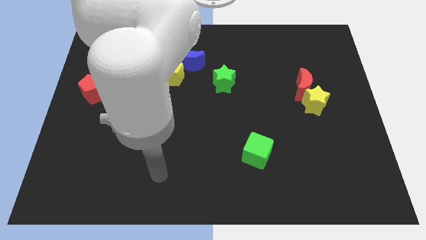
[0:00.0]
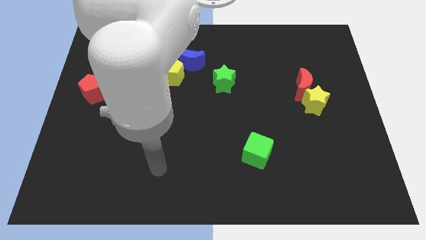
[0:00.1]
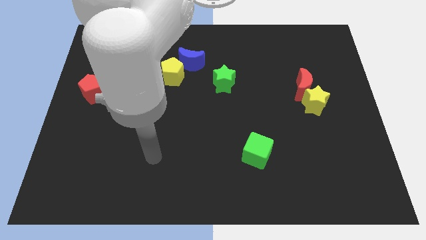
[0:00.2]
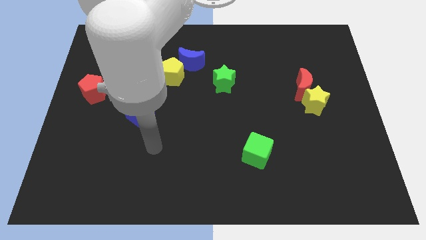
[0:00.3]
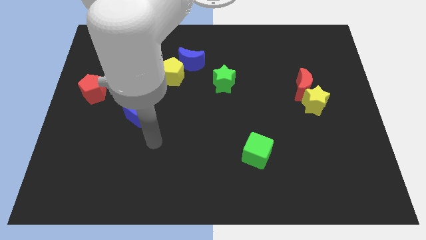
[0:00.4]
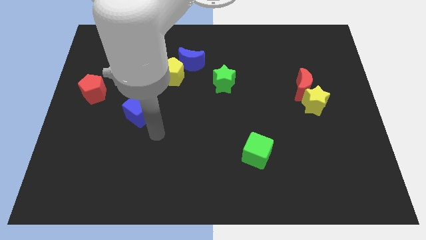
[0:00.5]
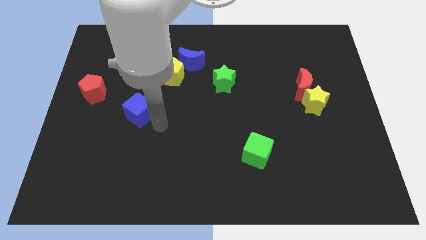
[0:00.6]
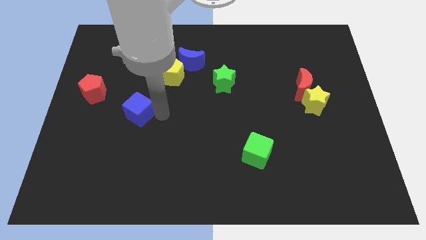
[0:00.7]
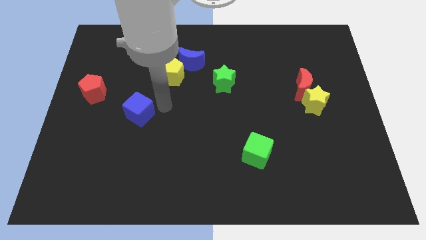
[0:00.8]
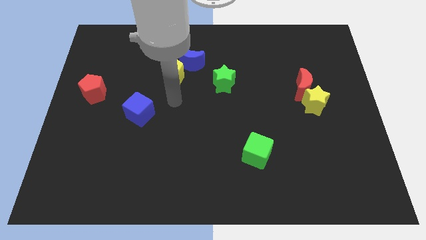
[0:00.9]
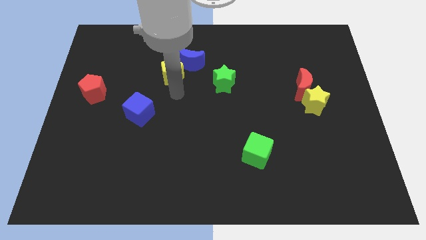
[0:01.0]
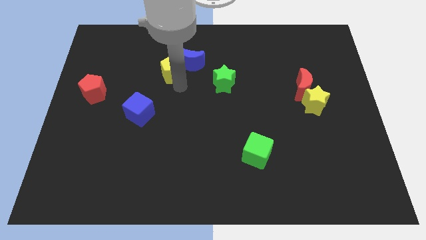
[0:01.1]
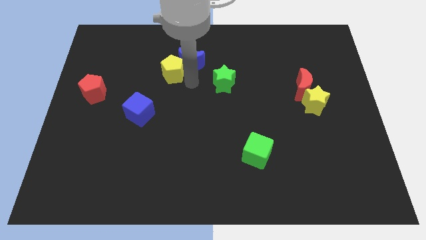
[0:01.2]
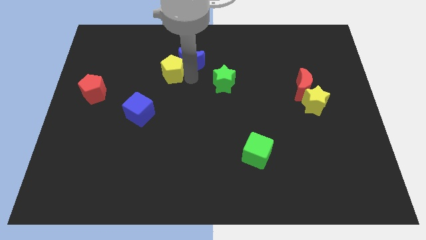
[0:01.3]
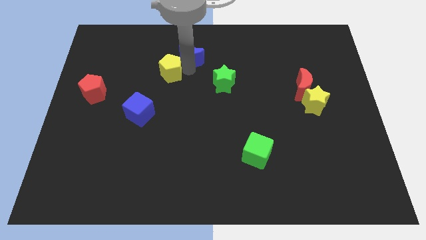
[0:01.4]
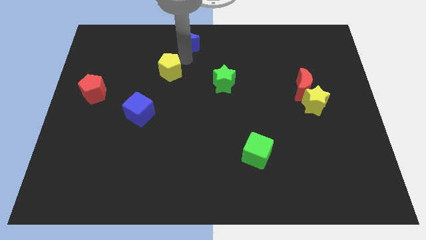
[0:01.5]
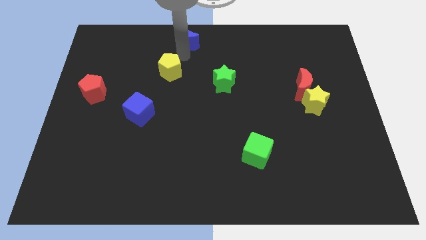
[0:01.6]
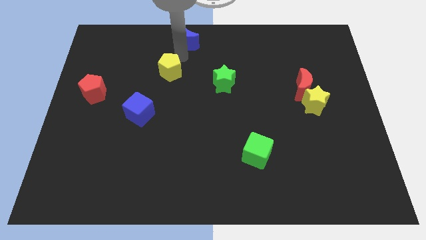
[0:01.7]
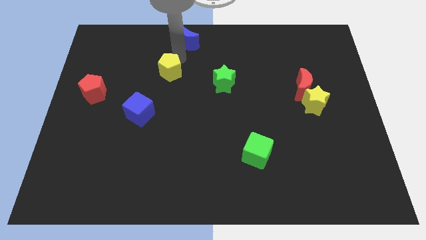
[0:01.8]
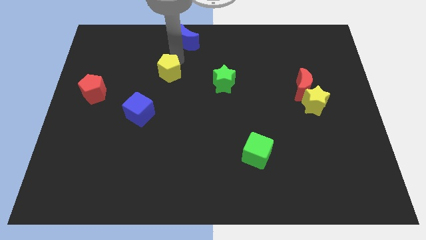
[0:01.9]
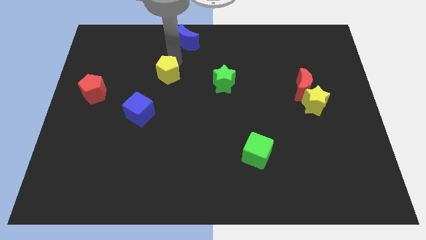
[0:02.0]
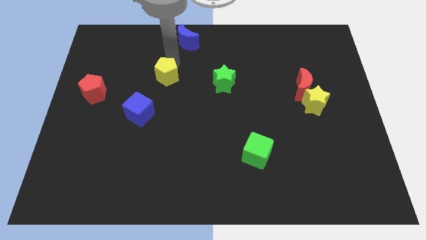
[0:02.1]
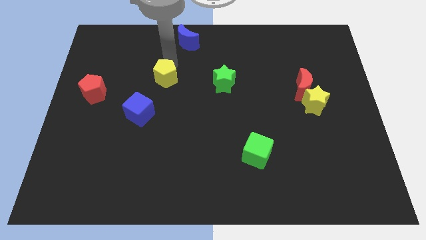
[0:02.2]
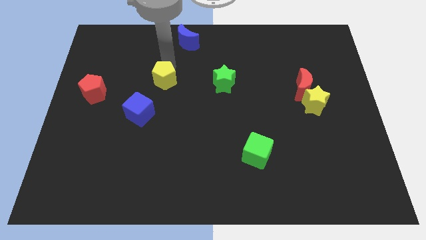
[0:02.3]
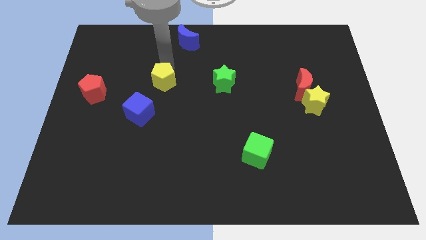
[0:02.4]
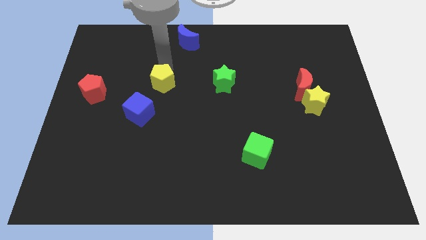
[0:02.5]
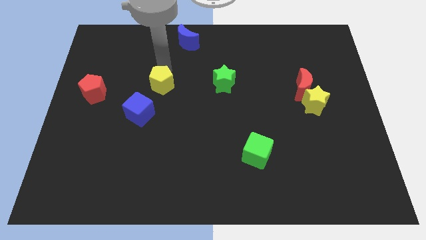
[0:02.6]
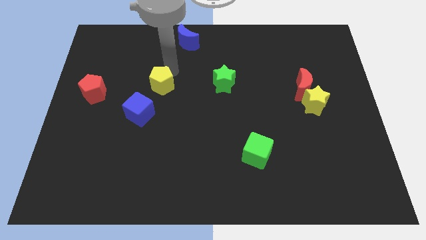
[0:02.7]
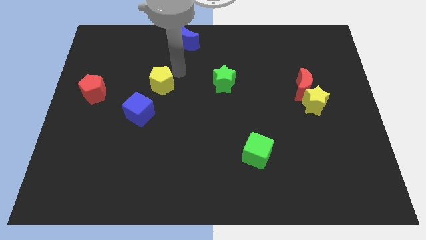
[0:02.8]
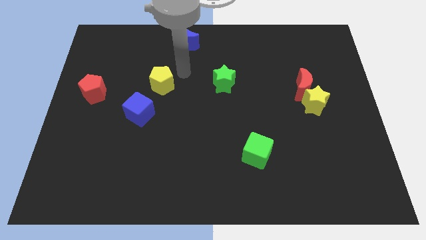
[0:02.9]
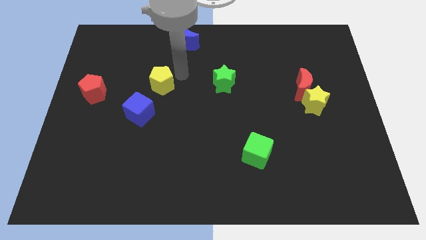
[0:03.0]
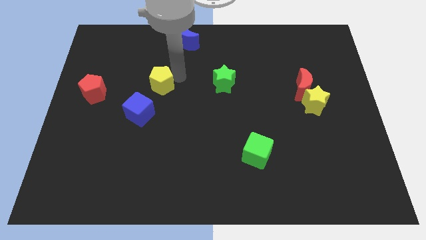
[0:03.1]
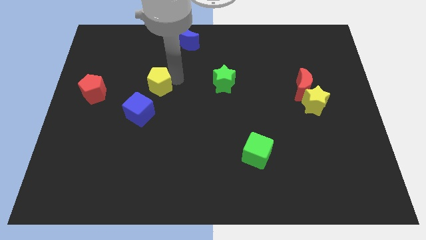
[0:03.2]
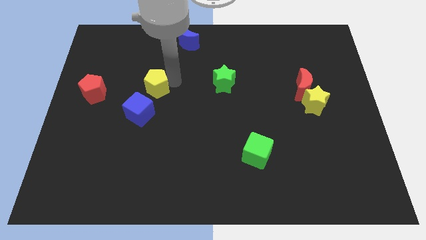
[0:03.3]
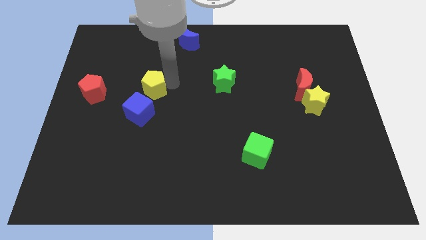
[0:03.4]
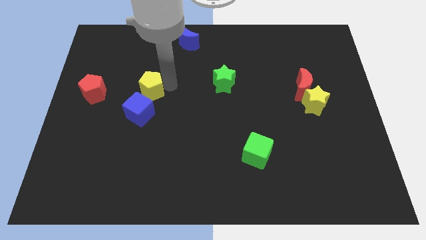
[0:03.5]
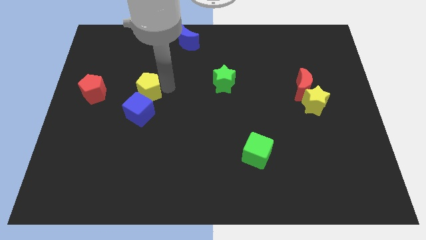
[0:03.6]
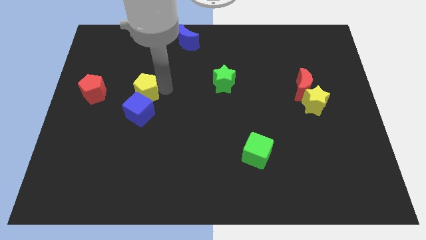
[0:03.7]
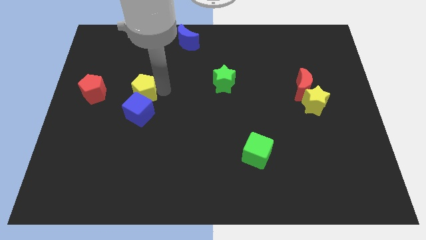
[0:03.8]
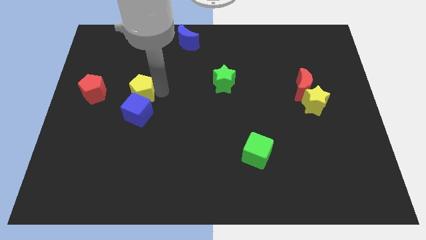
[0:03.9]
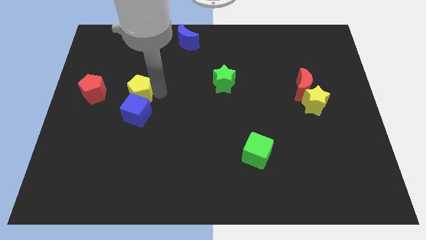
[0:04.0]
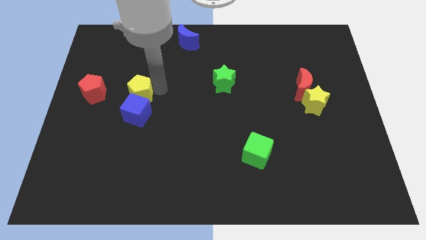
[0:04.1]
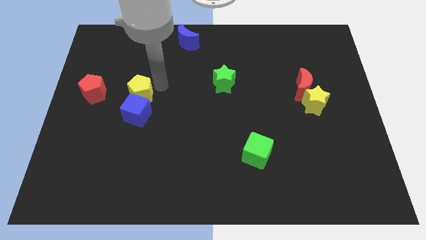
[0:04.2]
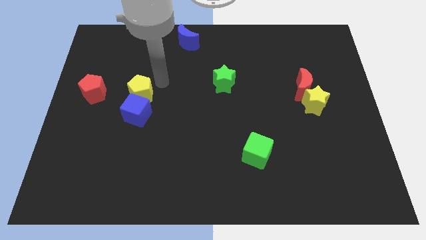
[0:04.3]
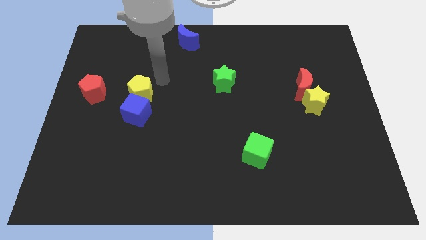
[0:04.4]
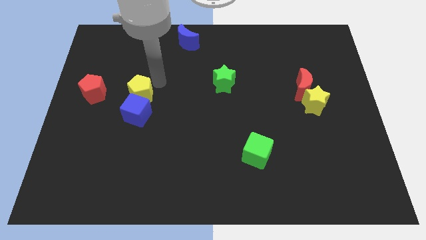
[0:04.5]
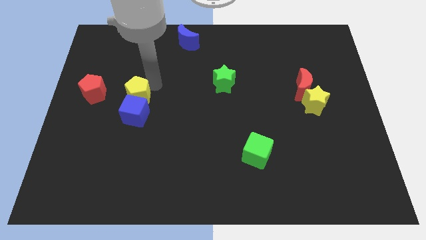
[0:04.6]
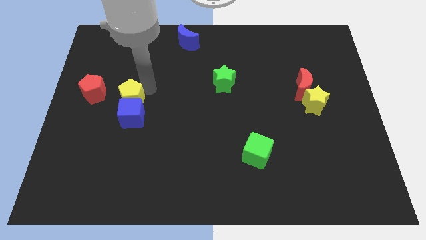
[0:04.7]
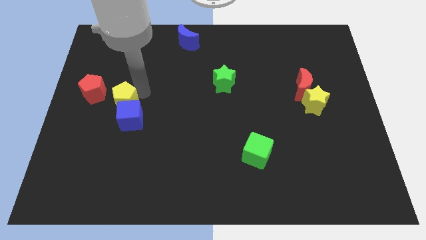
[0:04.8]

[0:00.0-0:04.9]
push the yellow pentagon diagonally down and to the right of the red pentagon

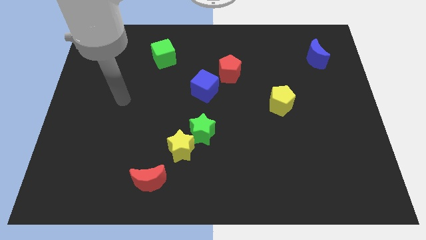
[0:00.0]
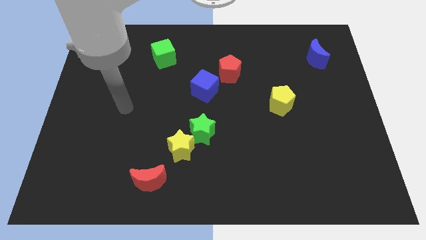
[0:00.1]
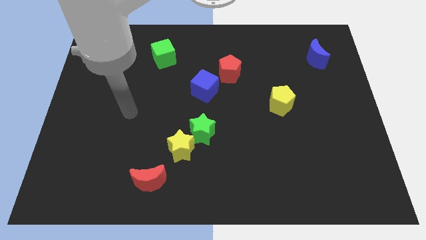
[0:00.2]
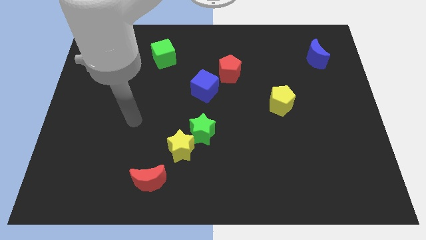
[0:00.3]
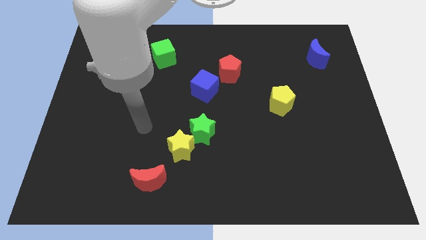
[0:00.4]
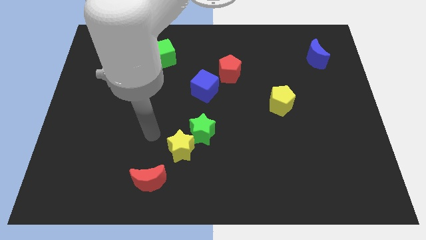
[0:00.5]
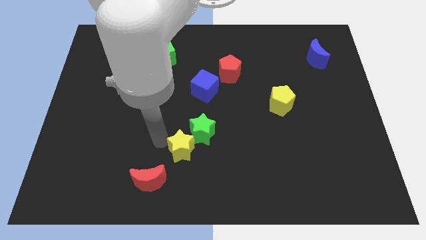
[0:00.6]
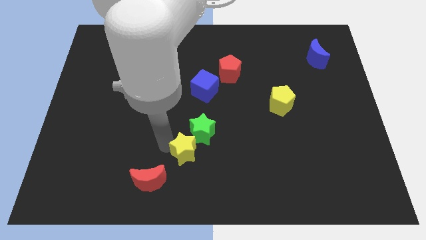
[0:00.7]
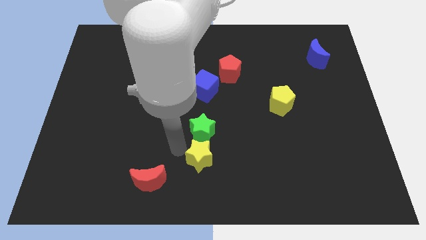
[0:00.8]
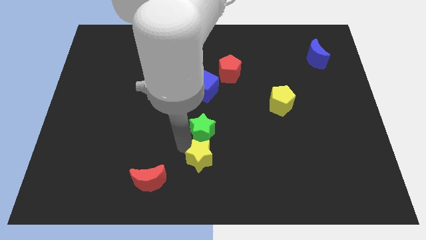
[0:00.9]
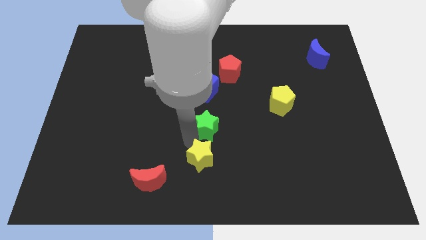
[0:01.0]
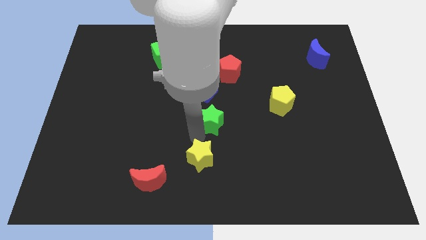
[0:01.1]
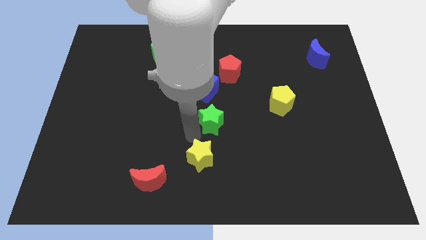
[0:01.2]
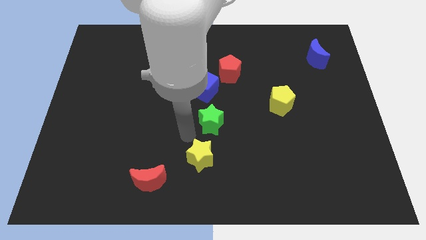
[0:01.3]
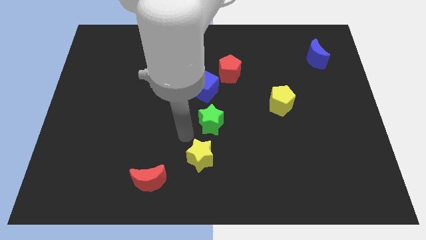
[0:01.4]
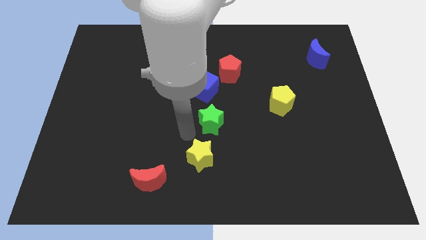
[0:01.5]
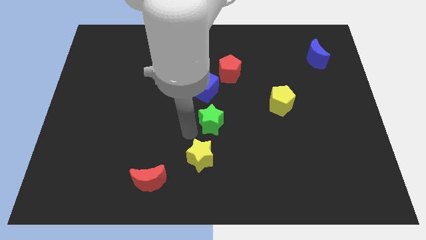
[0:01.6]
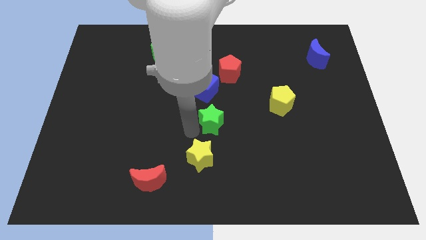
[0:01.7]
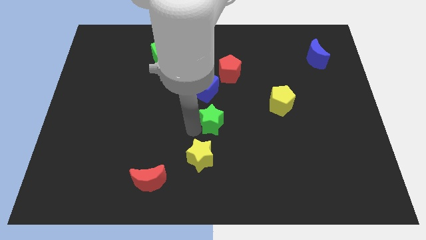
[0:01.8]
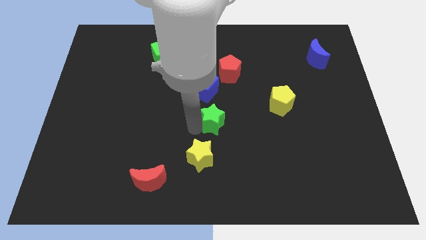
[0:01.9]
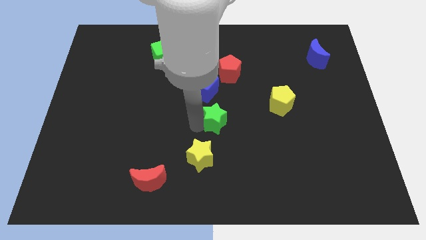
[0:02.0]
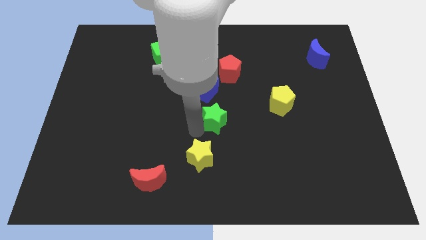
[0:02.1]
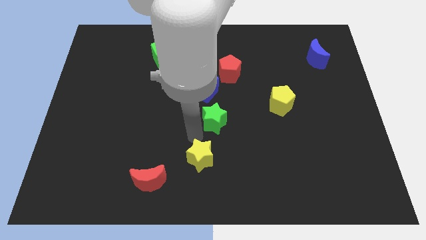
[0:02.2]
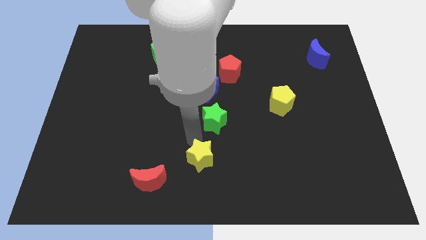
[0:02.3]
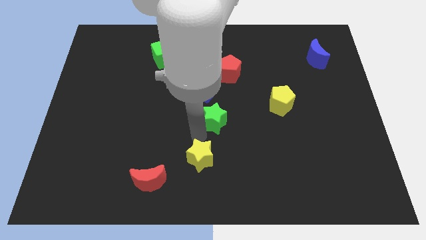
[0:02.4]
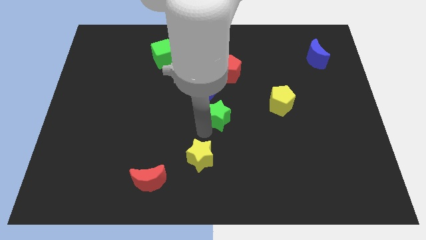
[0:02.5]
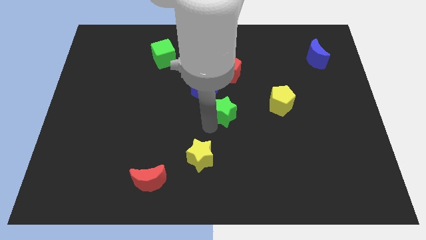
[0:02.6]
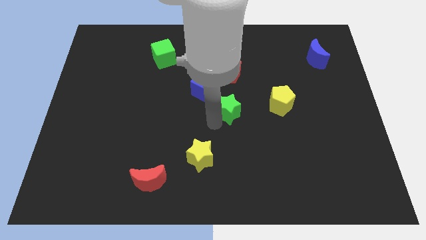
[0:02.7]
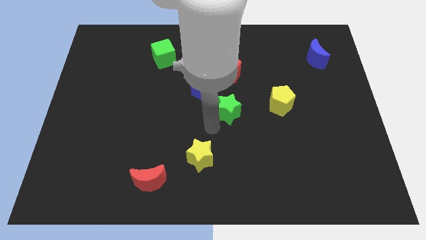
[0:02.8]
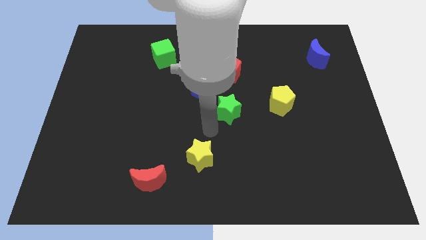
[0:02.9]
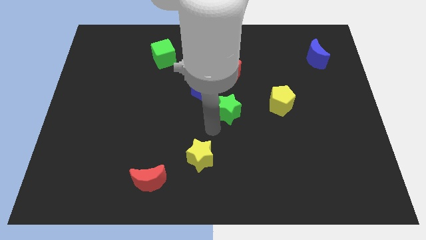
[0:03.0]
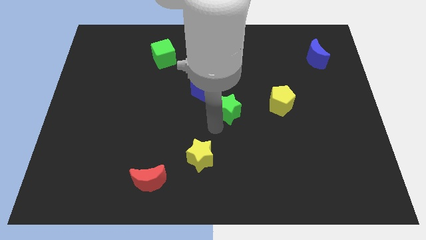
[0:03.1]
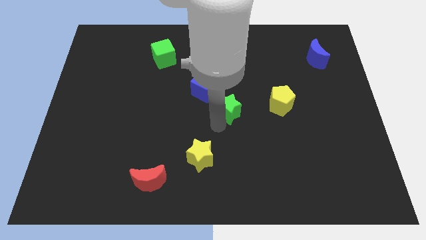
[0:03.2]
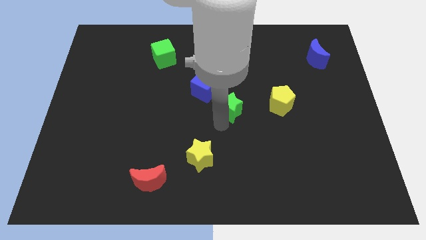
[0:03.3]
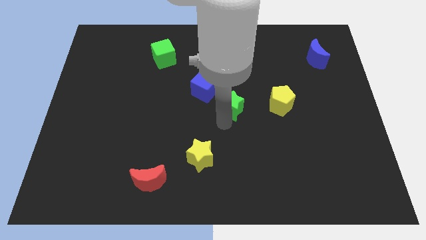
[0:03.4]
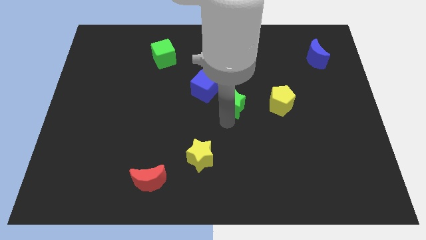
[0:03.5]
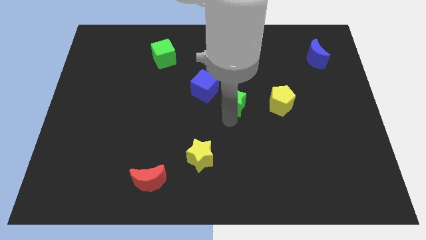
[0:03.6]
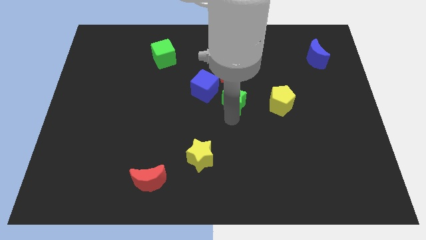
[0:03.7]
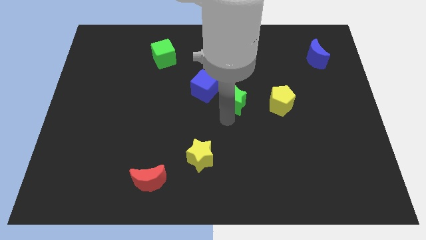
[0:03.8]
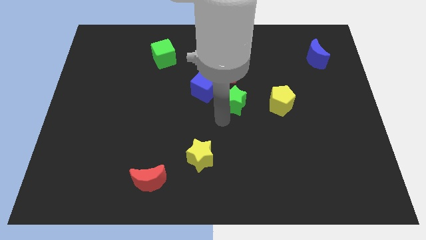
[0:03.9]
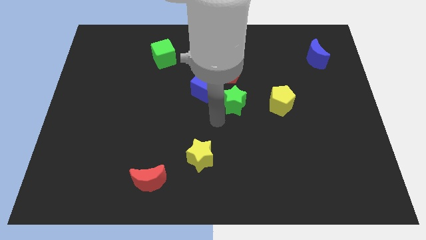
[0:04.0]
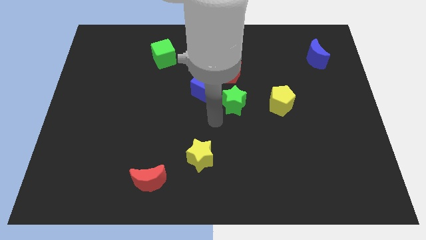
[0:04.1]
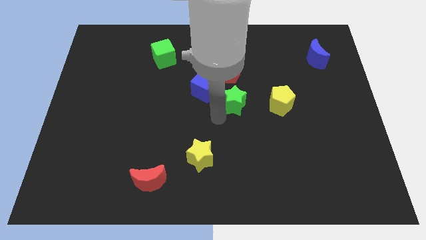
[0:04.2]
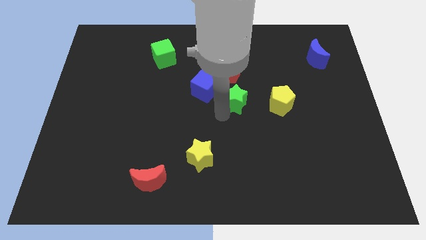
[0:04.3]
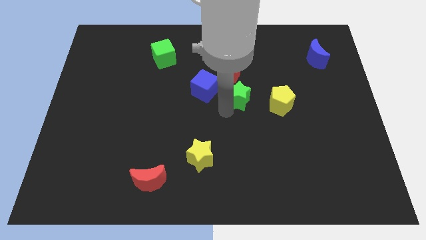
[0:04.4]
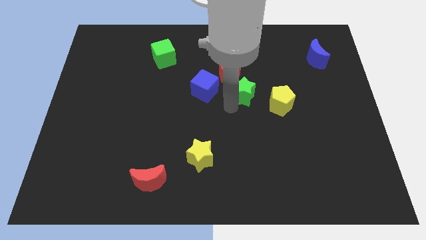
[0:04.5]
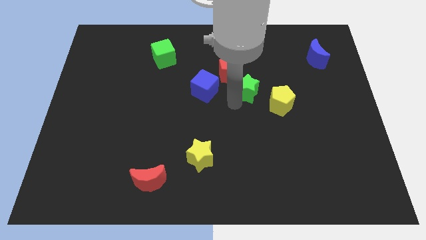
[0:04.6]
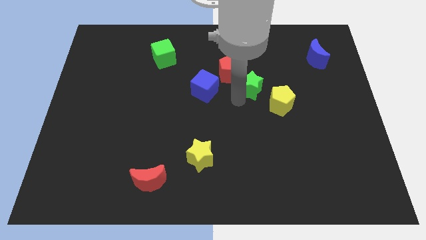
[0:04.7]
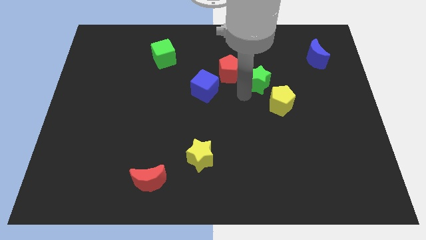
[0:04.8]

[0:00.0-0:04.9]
move the green star to the right side of the red pentagon
